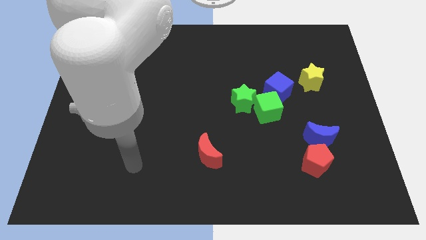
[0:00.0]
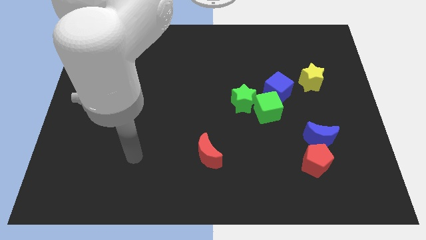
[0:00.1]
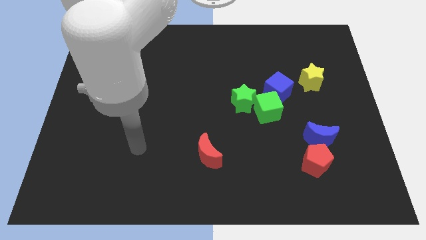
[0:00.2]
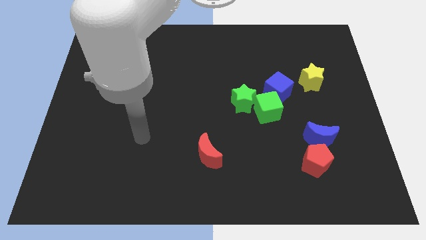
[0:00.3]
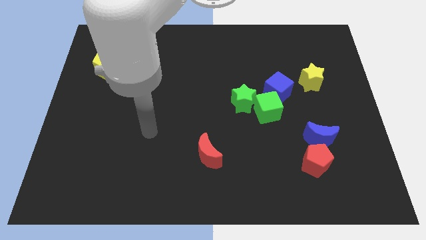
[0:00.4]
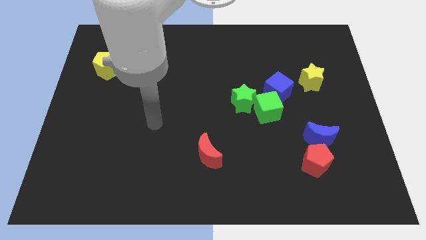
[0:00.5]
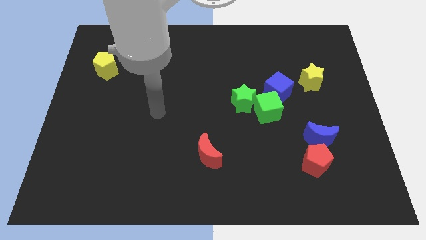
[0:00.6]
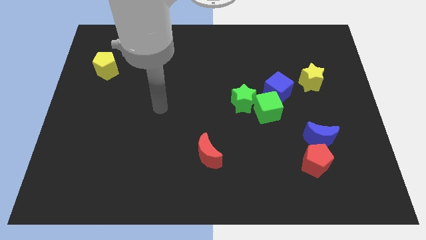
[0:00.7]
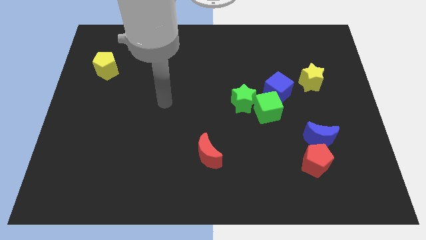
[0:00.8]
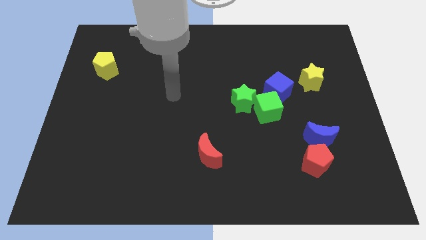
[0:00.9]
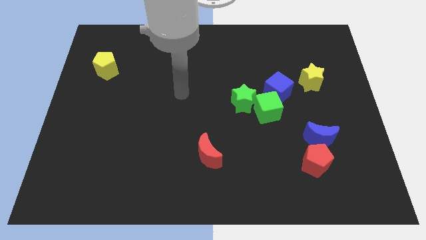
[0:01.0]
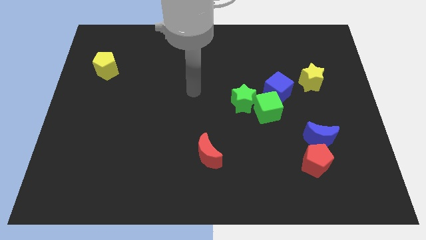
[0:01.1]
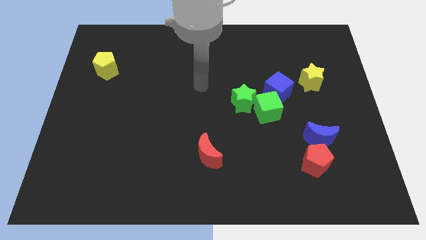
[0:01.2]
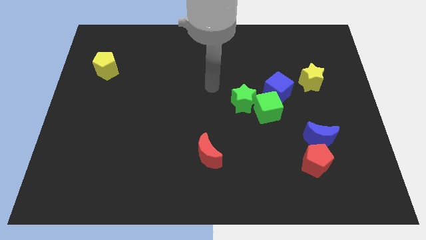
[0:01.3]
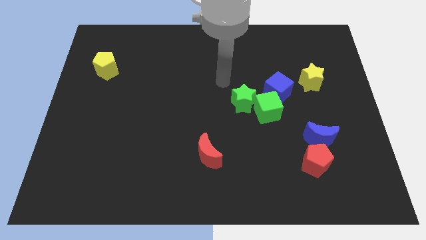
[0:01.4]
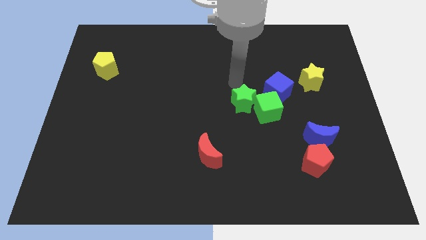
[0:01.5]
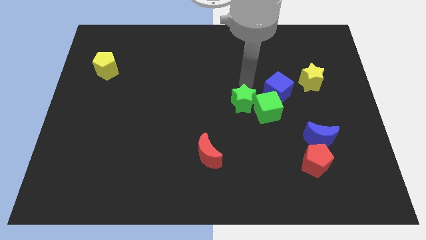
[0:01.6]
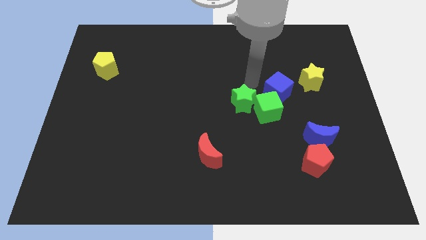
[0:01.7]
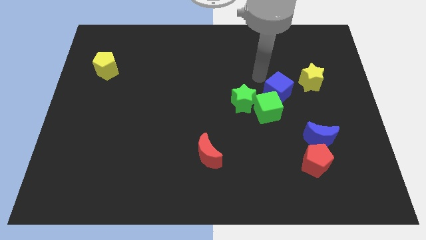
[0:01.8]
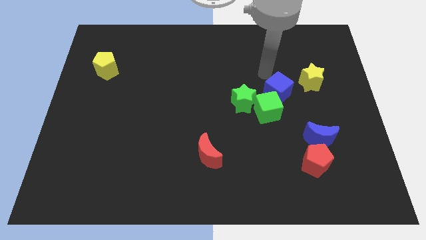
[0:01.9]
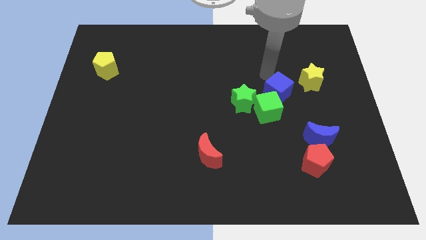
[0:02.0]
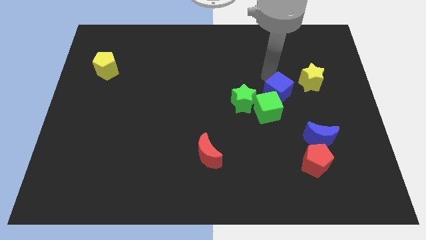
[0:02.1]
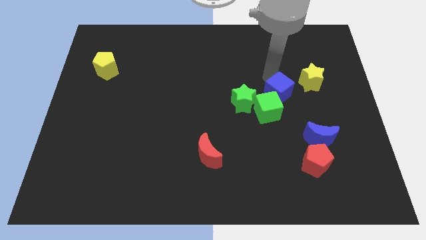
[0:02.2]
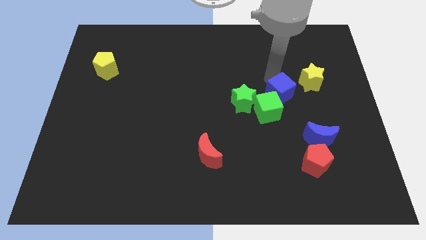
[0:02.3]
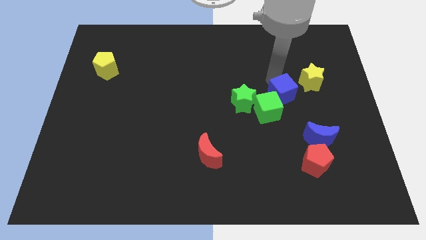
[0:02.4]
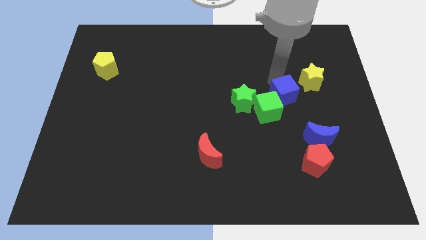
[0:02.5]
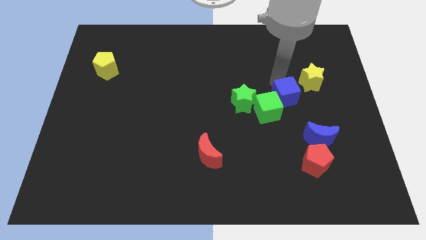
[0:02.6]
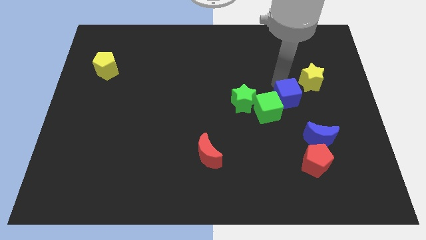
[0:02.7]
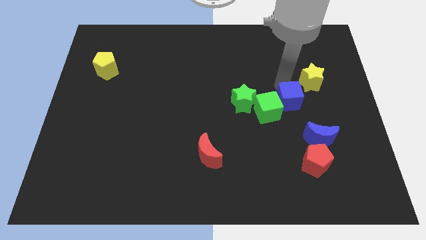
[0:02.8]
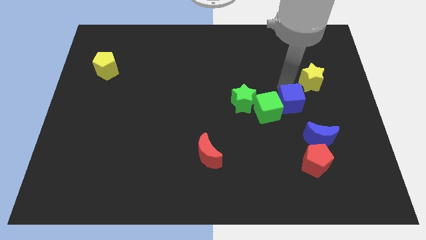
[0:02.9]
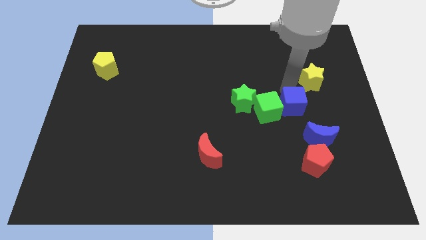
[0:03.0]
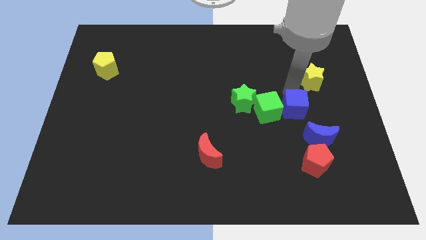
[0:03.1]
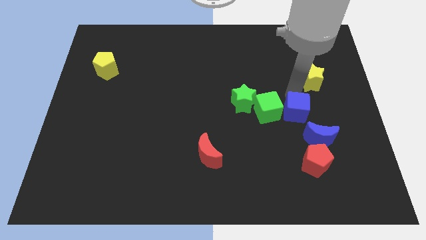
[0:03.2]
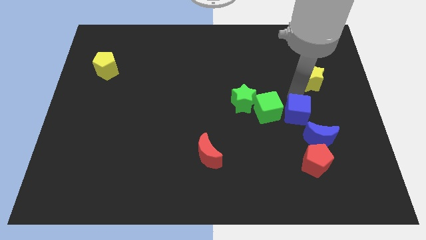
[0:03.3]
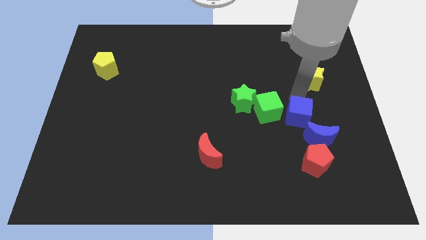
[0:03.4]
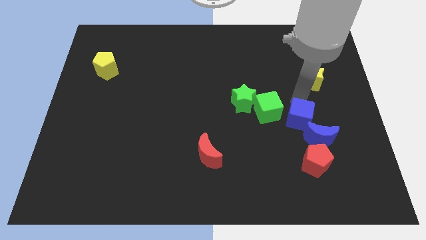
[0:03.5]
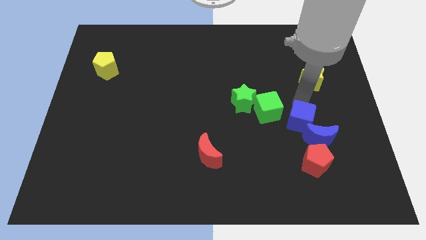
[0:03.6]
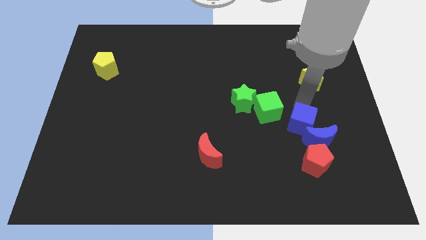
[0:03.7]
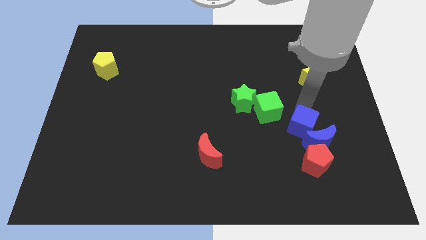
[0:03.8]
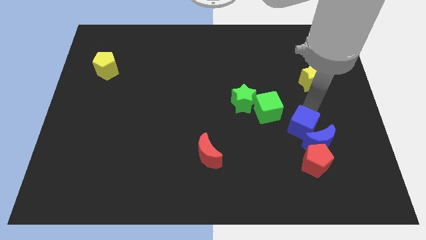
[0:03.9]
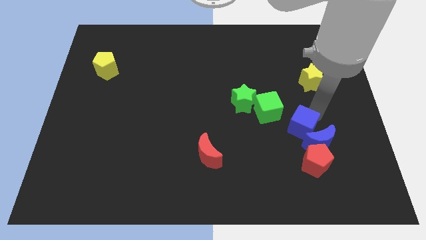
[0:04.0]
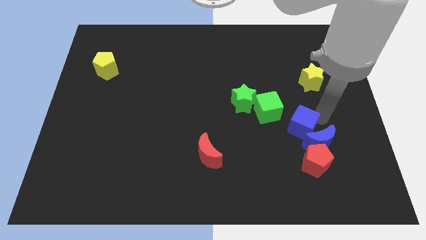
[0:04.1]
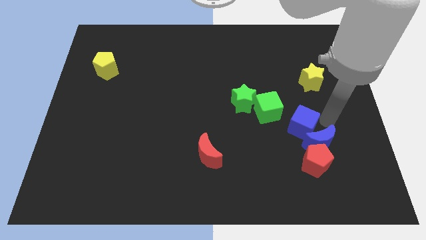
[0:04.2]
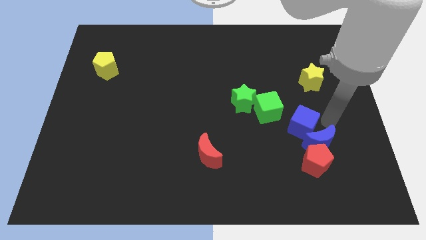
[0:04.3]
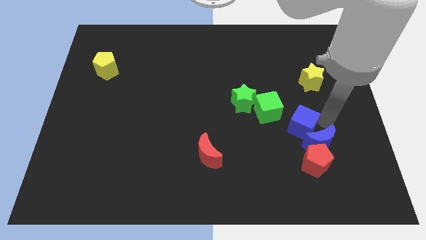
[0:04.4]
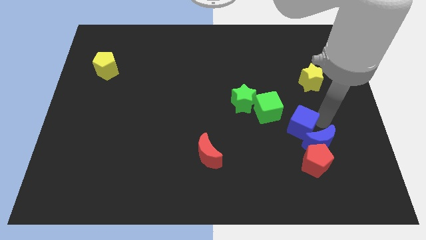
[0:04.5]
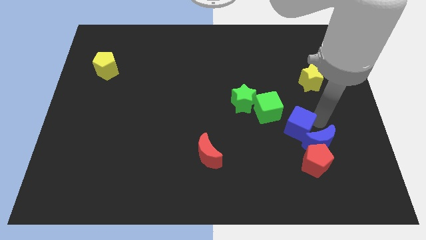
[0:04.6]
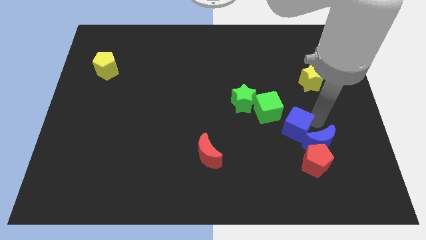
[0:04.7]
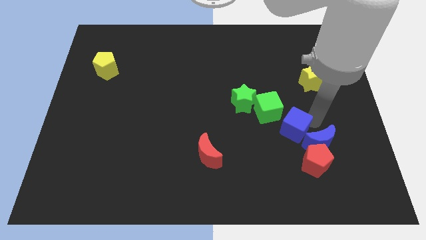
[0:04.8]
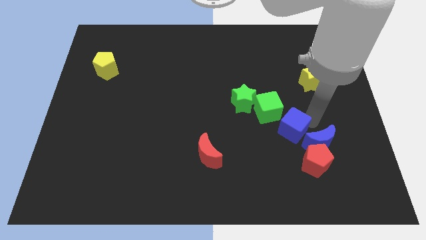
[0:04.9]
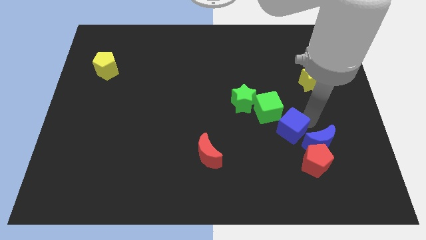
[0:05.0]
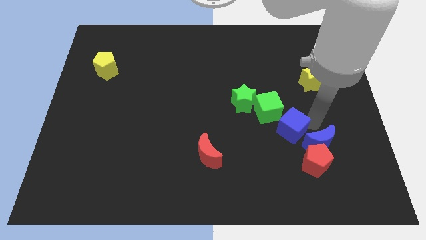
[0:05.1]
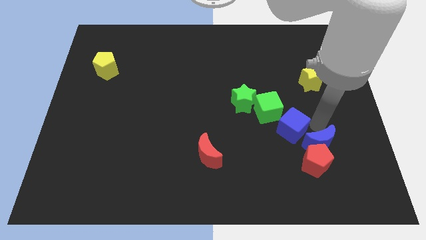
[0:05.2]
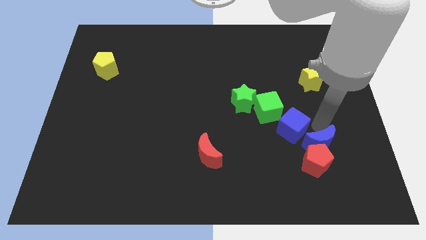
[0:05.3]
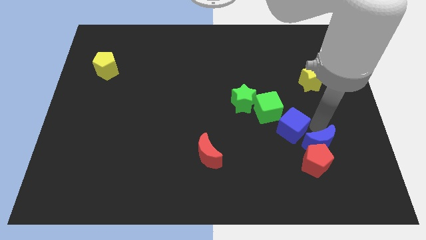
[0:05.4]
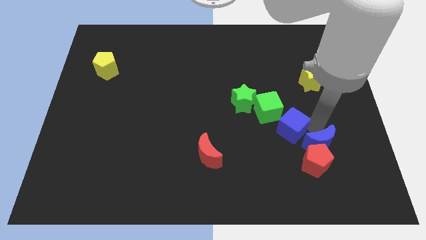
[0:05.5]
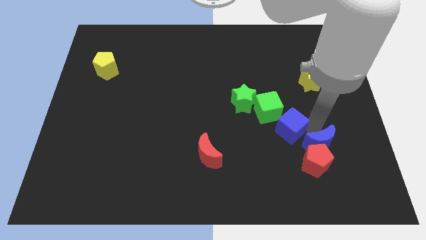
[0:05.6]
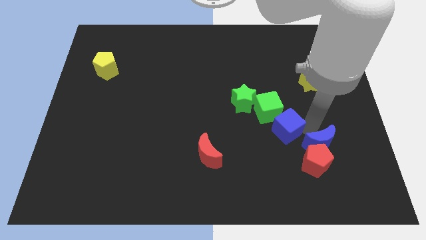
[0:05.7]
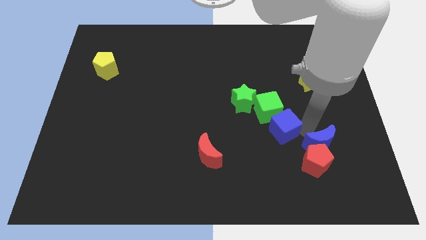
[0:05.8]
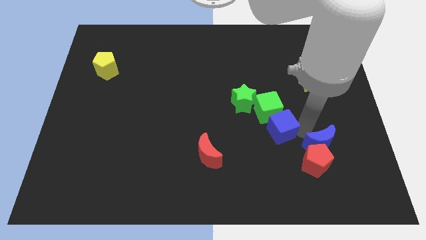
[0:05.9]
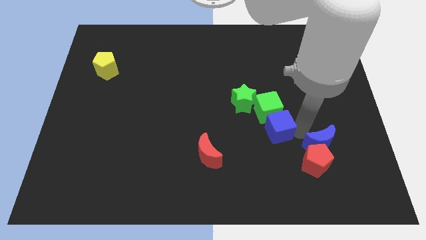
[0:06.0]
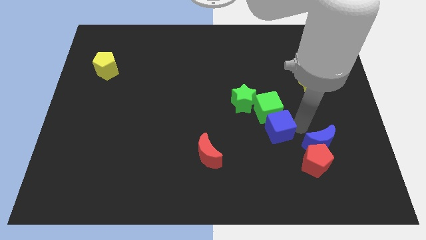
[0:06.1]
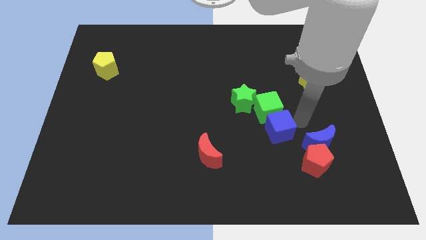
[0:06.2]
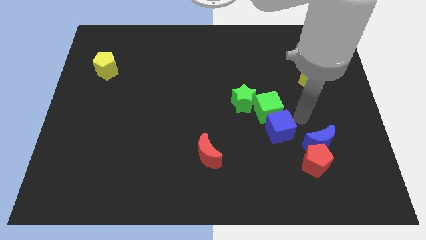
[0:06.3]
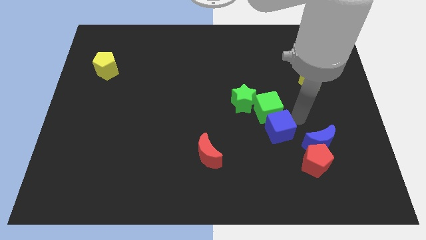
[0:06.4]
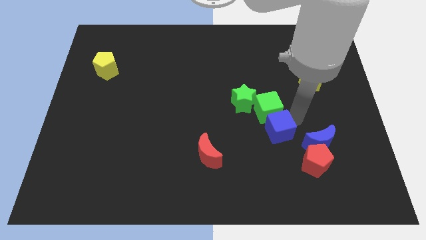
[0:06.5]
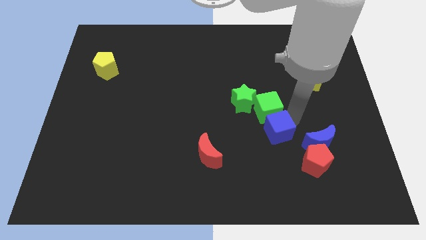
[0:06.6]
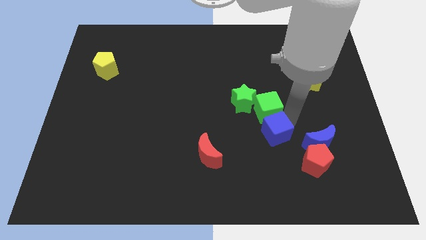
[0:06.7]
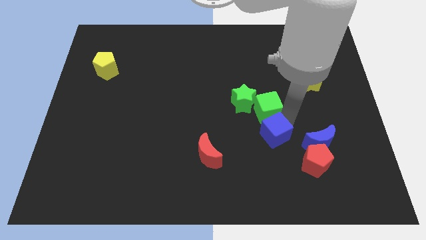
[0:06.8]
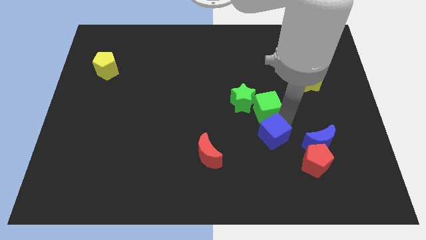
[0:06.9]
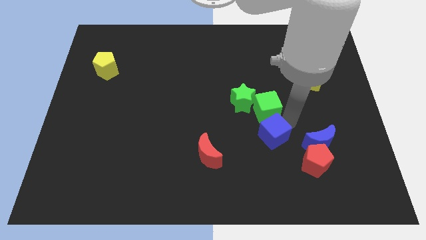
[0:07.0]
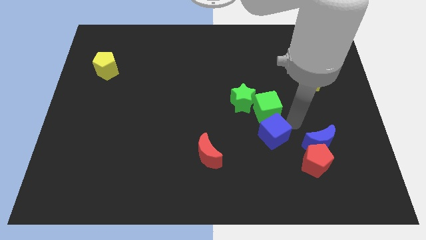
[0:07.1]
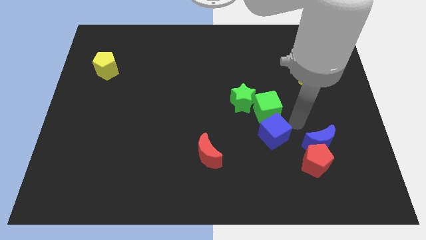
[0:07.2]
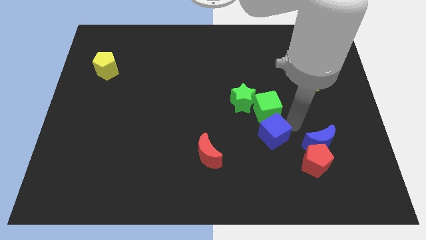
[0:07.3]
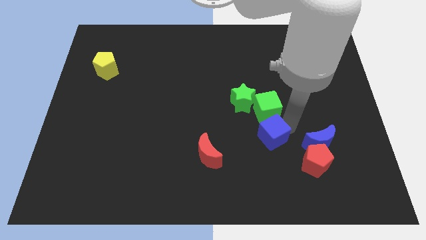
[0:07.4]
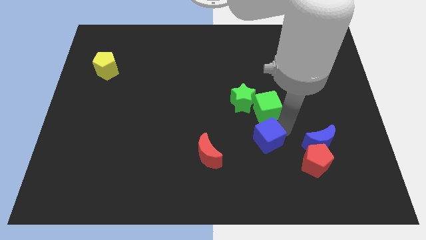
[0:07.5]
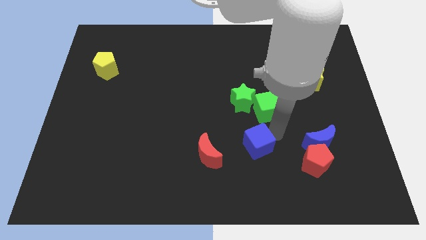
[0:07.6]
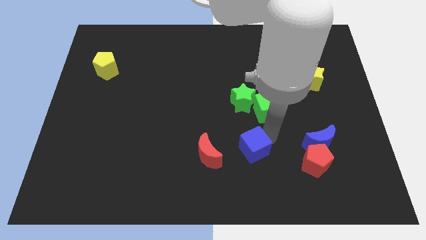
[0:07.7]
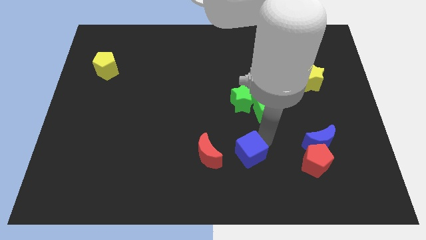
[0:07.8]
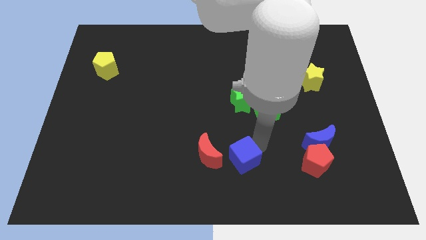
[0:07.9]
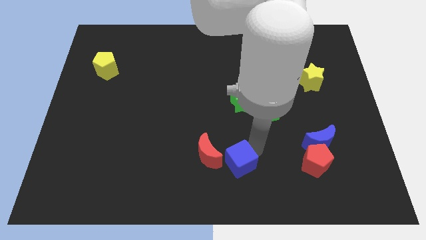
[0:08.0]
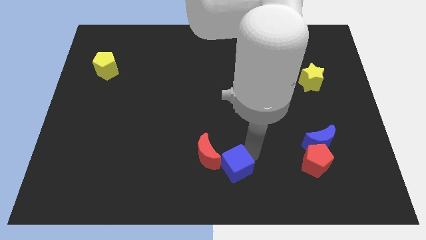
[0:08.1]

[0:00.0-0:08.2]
push the blue cube down and then to the left
